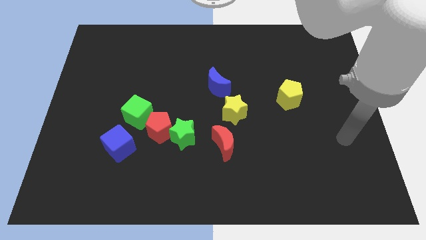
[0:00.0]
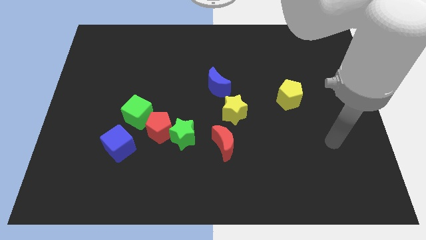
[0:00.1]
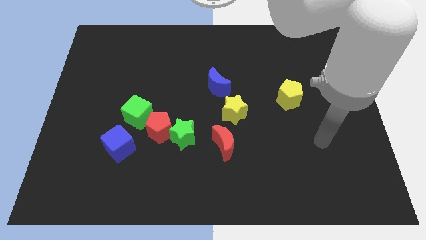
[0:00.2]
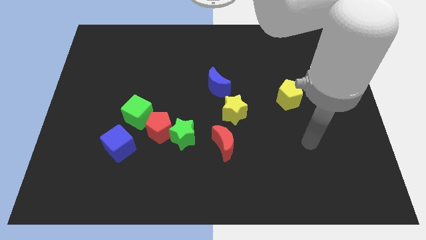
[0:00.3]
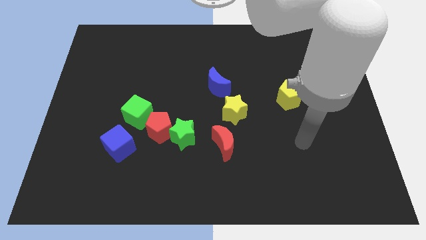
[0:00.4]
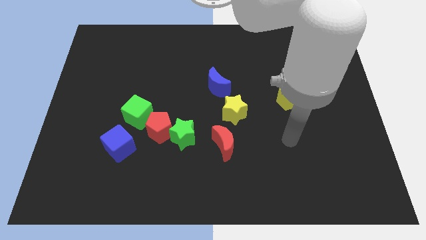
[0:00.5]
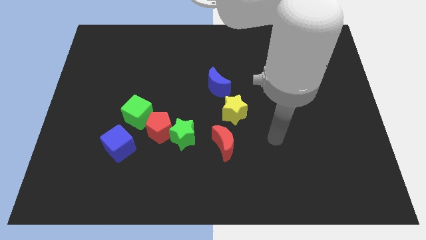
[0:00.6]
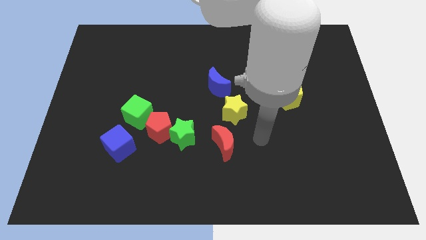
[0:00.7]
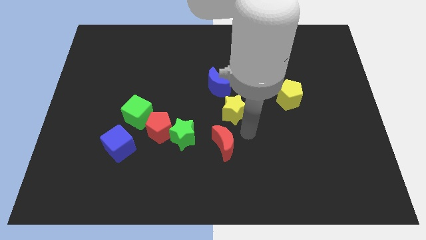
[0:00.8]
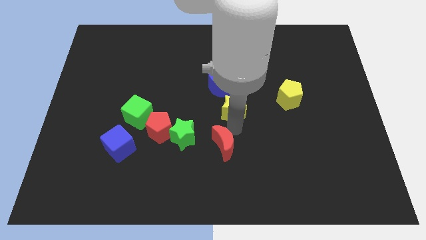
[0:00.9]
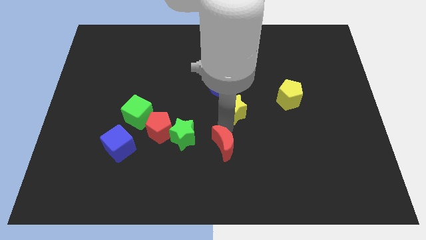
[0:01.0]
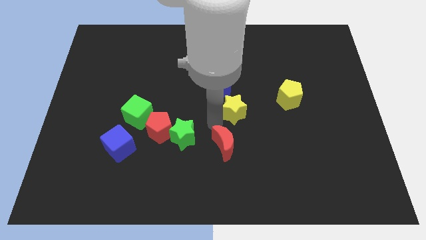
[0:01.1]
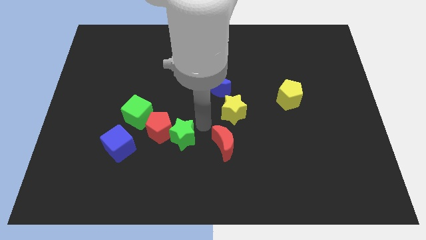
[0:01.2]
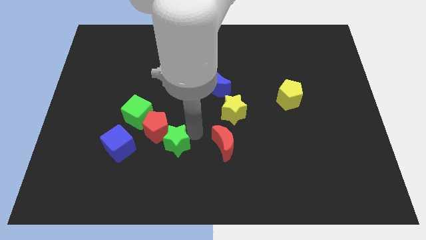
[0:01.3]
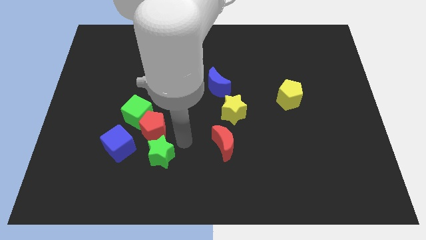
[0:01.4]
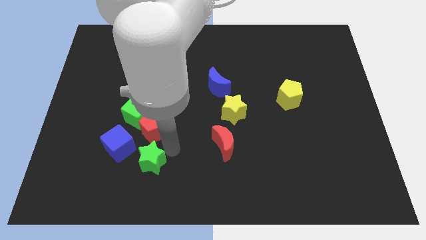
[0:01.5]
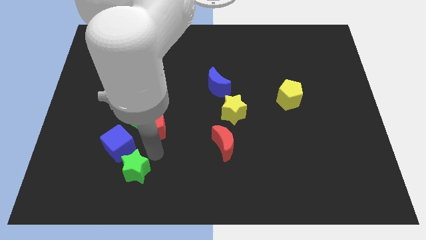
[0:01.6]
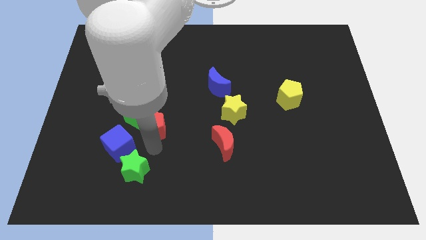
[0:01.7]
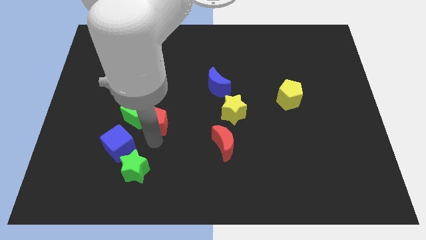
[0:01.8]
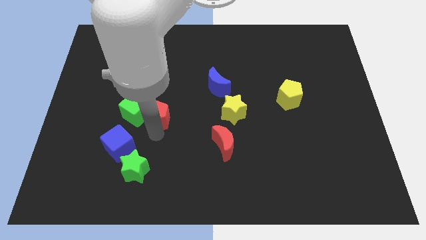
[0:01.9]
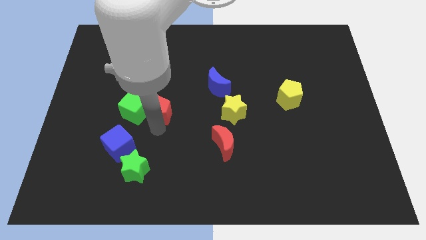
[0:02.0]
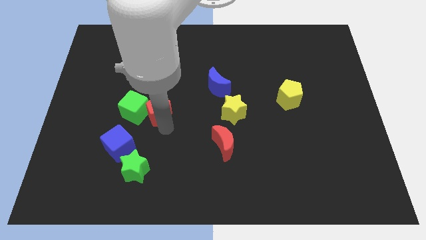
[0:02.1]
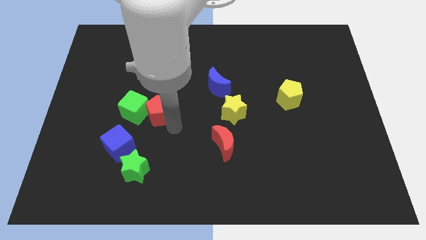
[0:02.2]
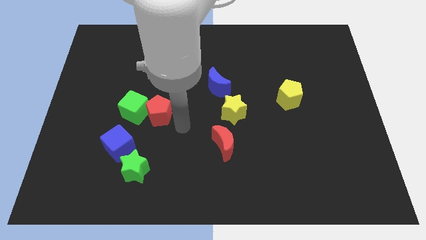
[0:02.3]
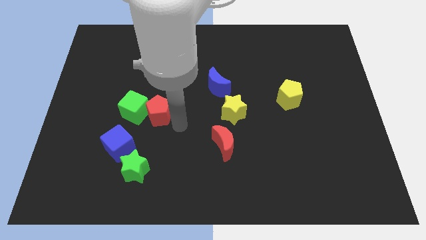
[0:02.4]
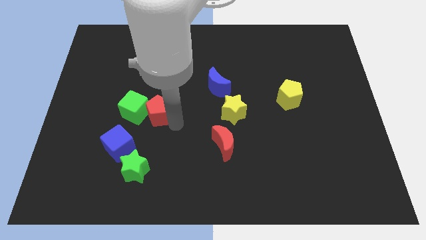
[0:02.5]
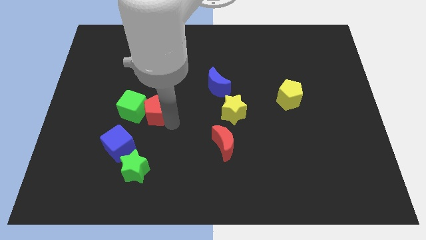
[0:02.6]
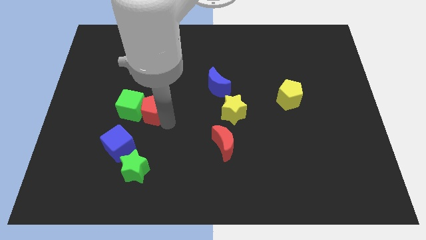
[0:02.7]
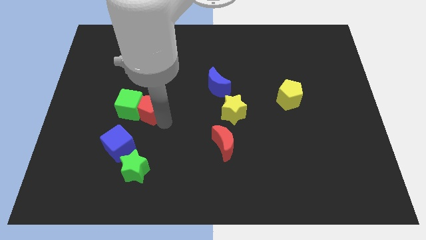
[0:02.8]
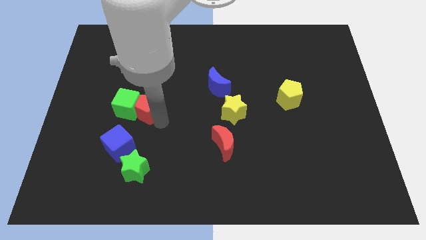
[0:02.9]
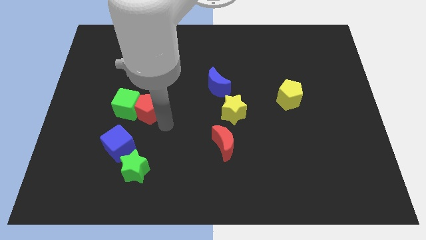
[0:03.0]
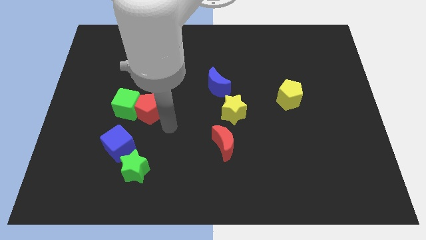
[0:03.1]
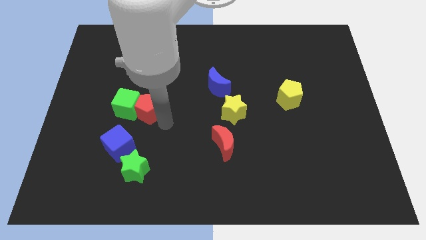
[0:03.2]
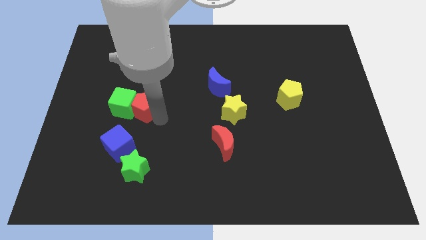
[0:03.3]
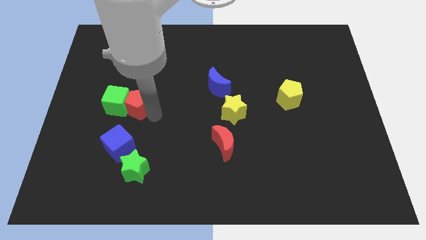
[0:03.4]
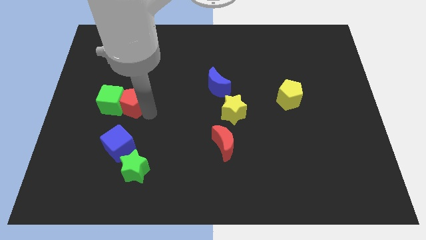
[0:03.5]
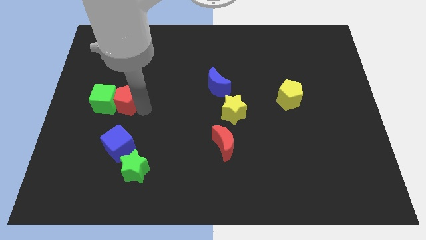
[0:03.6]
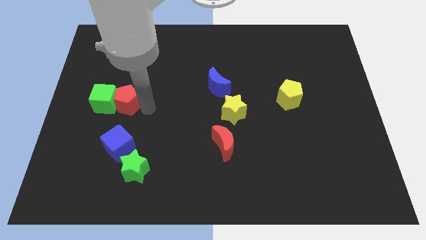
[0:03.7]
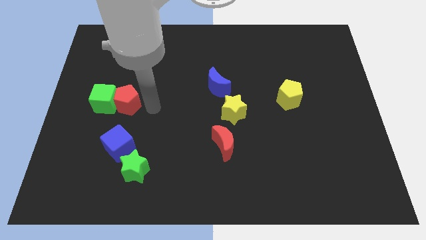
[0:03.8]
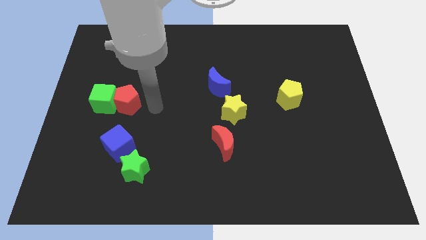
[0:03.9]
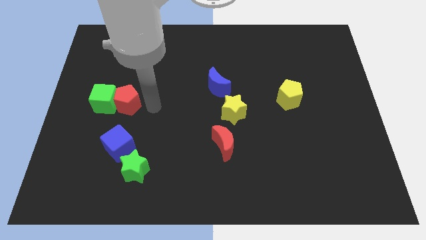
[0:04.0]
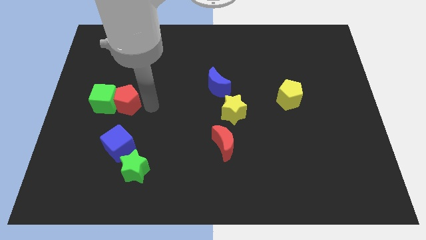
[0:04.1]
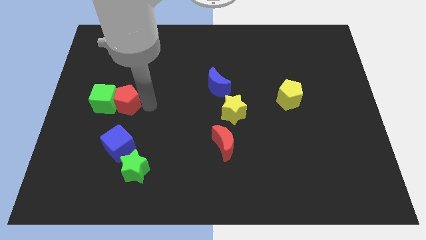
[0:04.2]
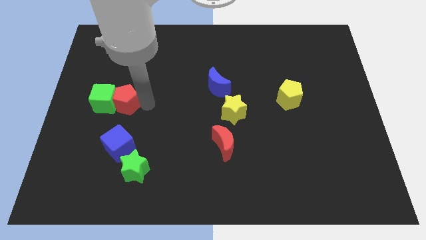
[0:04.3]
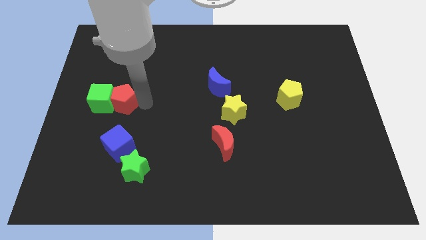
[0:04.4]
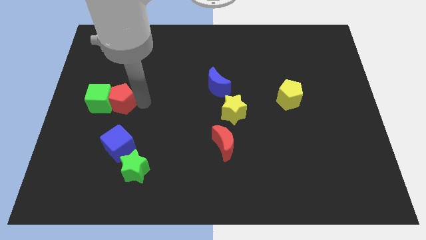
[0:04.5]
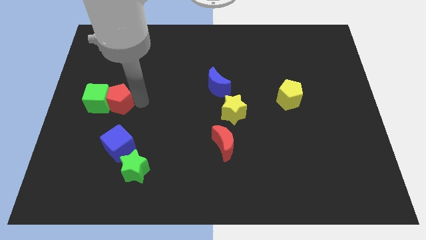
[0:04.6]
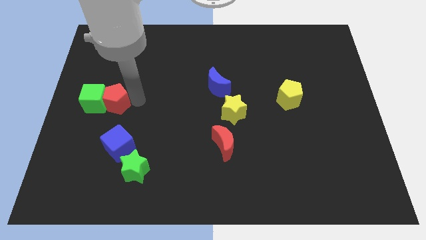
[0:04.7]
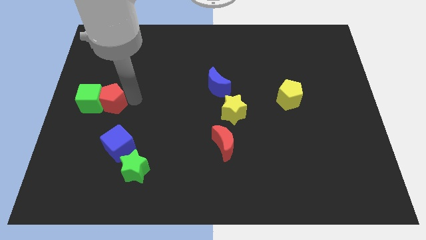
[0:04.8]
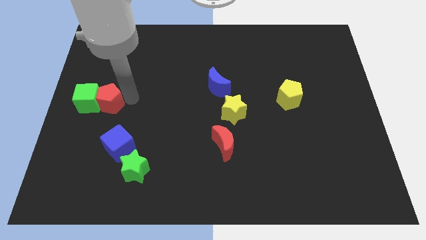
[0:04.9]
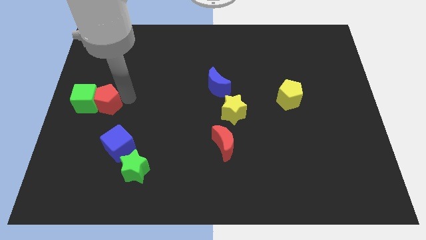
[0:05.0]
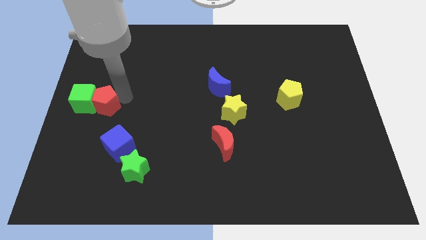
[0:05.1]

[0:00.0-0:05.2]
put the red pentagon to the left side of the board

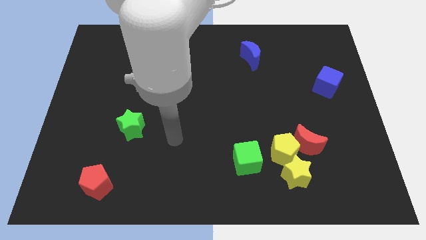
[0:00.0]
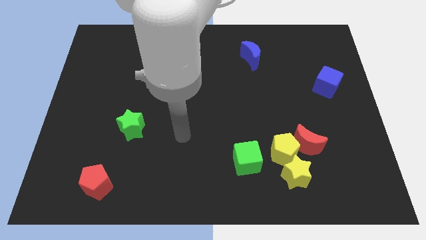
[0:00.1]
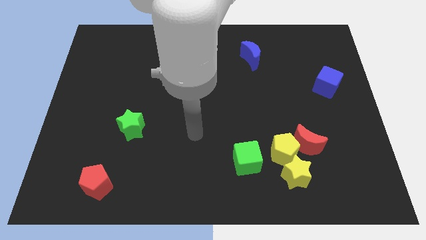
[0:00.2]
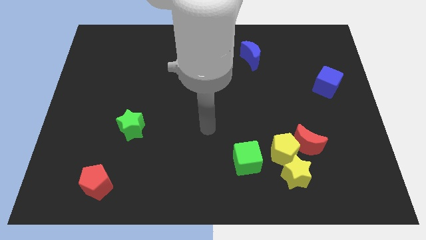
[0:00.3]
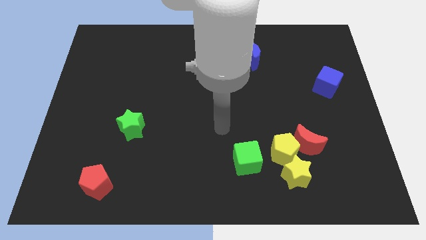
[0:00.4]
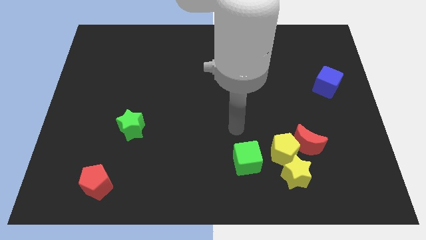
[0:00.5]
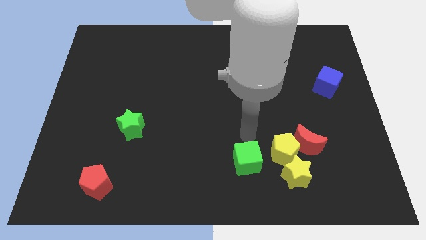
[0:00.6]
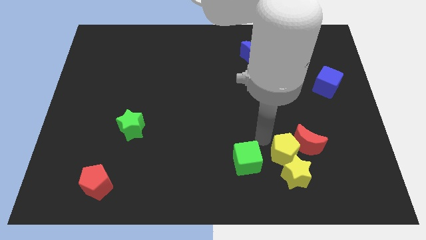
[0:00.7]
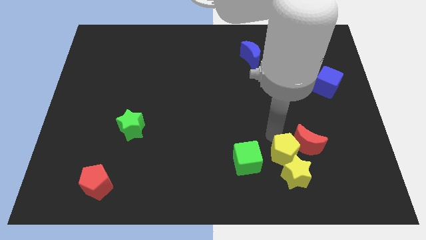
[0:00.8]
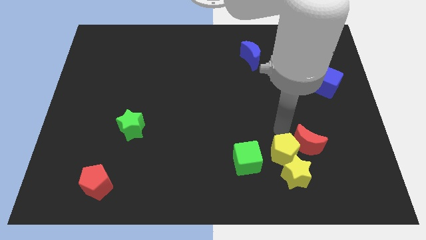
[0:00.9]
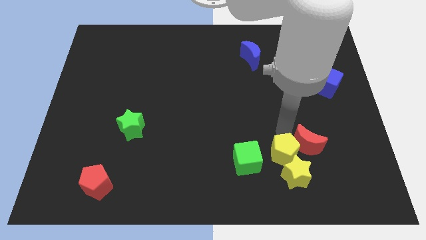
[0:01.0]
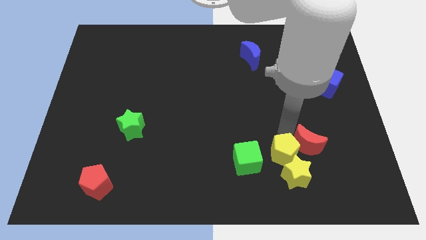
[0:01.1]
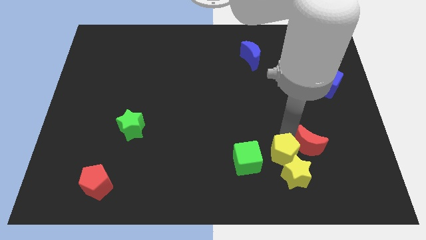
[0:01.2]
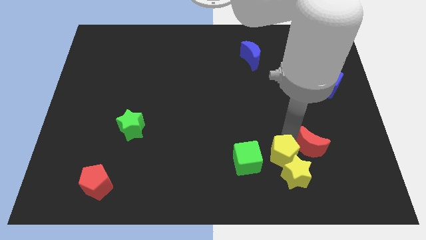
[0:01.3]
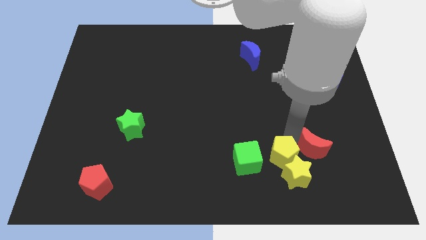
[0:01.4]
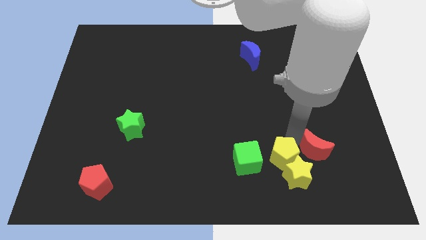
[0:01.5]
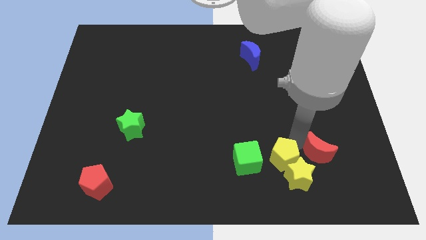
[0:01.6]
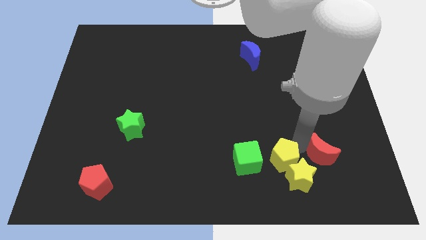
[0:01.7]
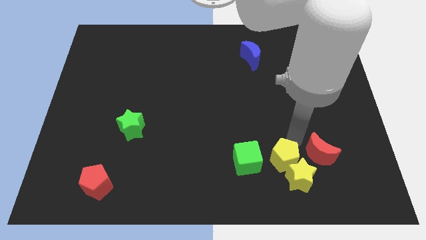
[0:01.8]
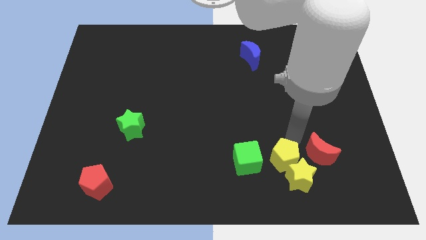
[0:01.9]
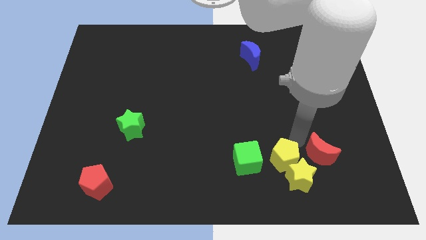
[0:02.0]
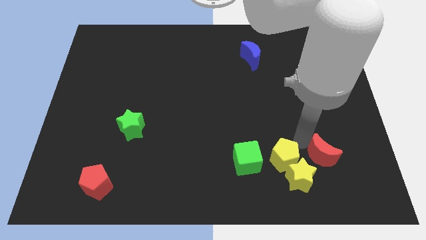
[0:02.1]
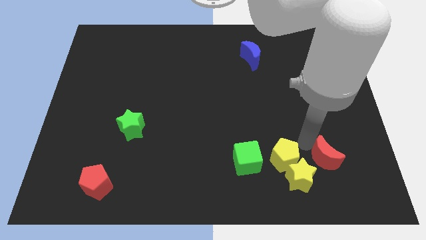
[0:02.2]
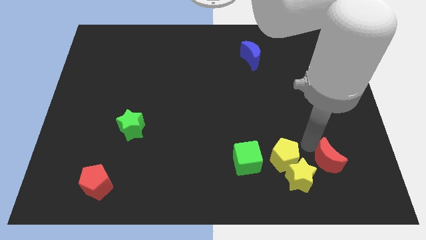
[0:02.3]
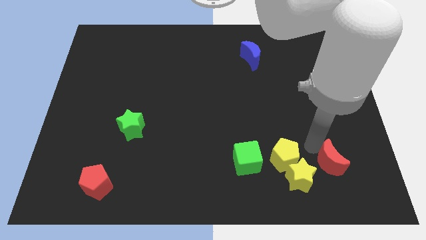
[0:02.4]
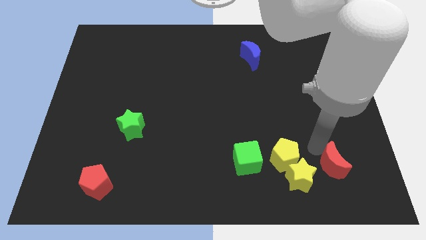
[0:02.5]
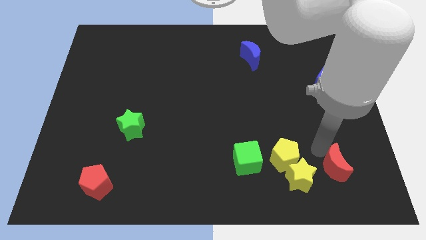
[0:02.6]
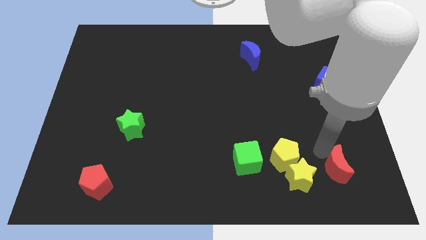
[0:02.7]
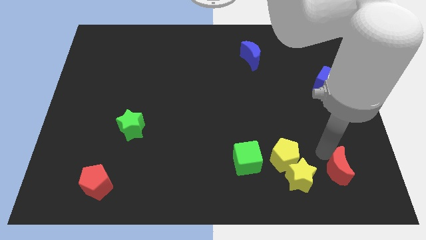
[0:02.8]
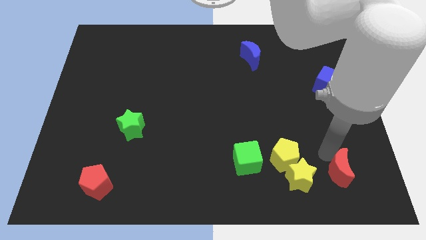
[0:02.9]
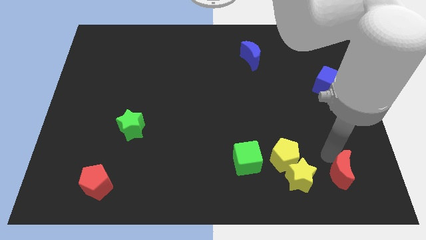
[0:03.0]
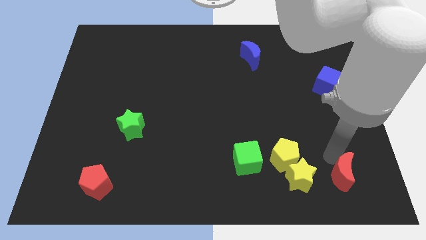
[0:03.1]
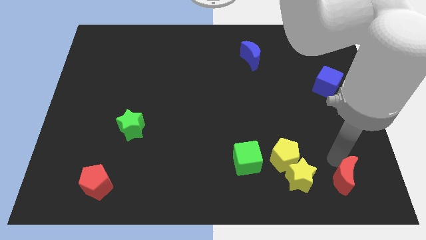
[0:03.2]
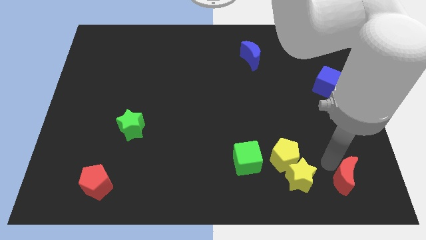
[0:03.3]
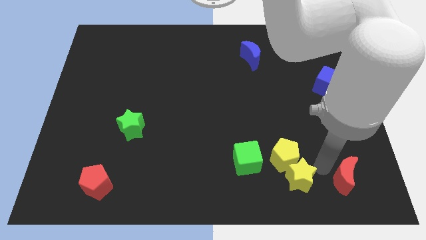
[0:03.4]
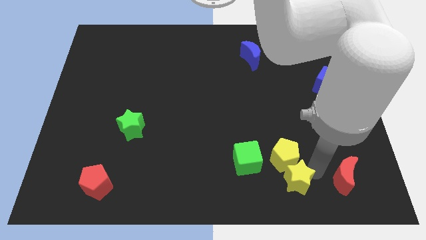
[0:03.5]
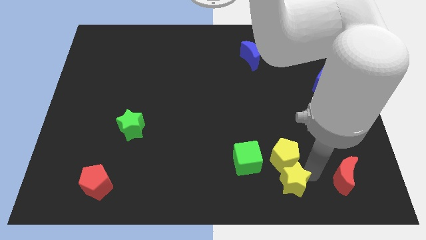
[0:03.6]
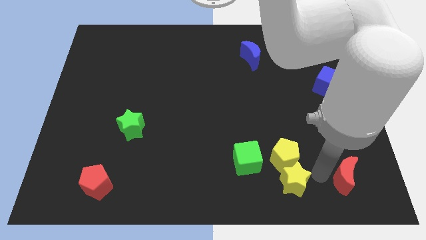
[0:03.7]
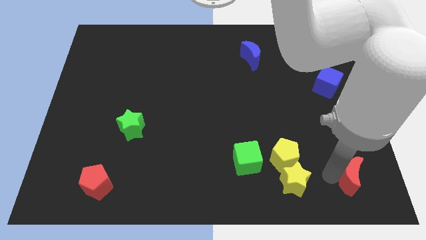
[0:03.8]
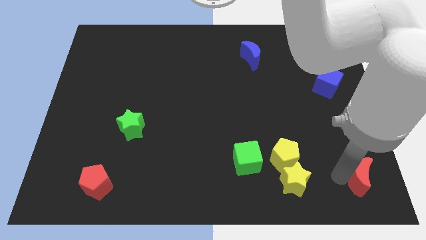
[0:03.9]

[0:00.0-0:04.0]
slide the red moon to the bottom right
